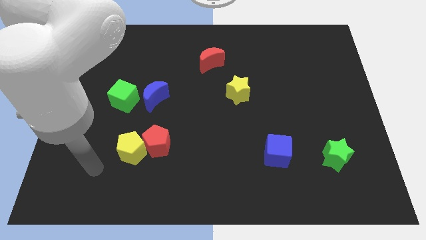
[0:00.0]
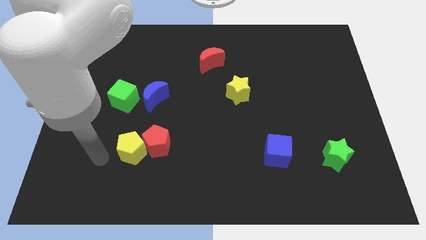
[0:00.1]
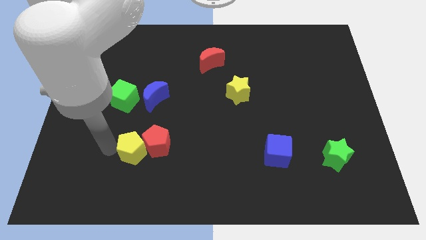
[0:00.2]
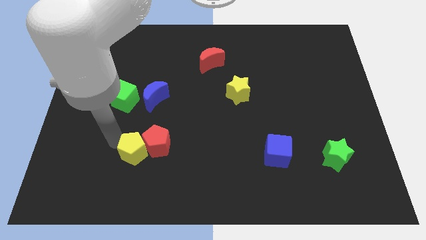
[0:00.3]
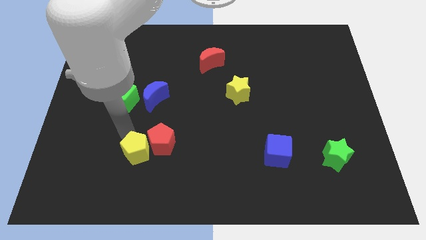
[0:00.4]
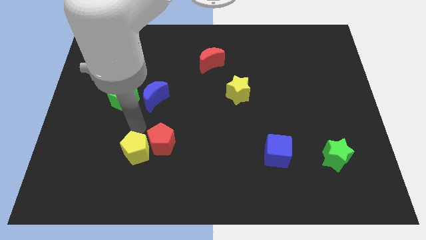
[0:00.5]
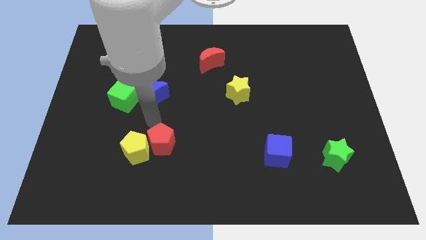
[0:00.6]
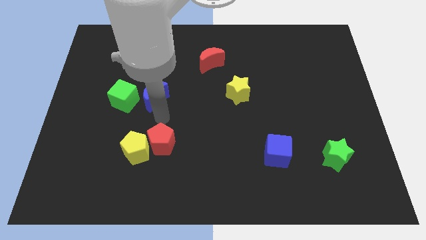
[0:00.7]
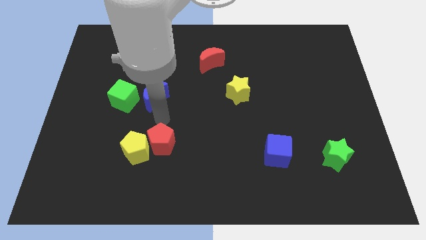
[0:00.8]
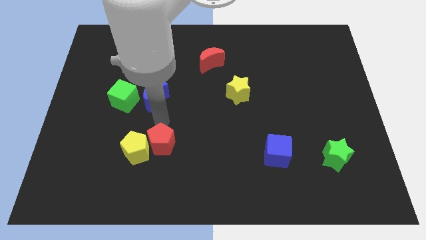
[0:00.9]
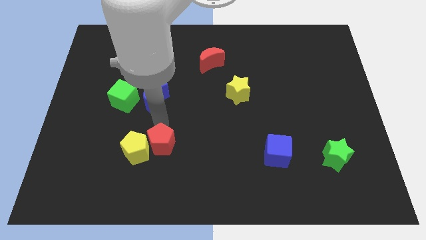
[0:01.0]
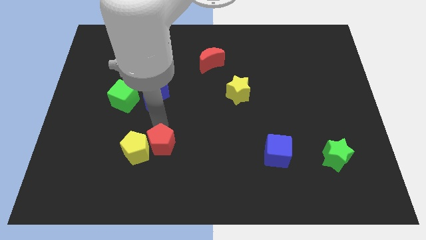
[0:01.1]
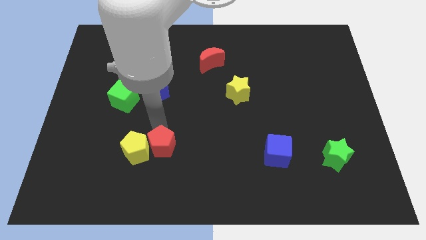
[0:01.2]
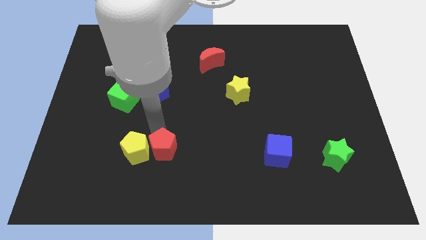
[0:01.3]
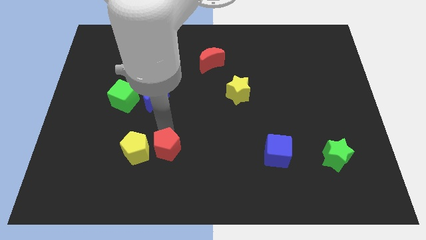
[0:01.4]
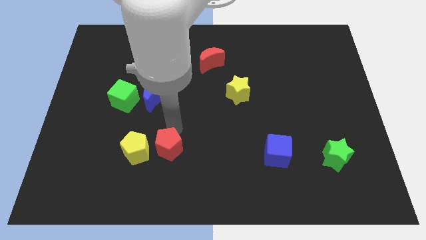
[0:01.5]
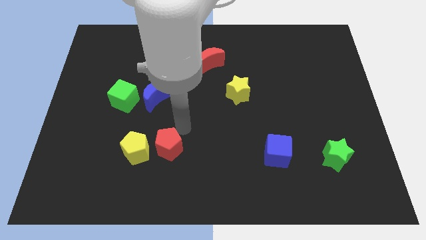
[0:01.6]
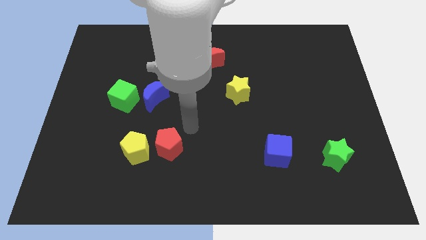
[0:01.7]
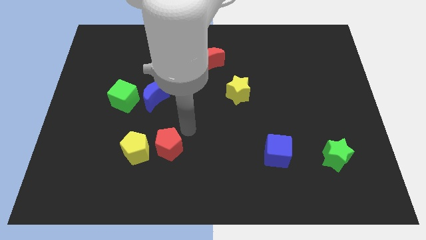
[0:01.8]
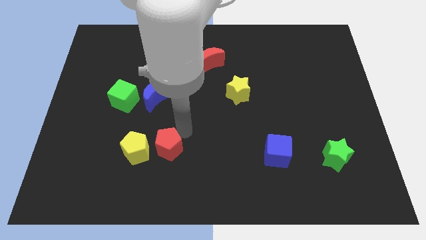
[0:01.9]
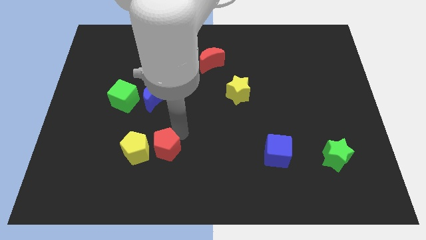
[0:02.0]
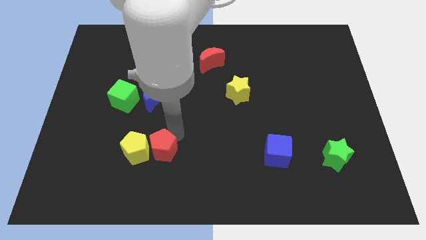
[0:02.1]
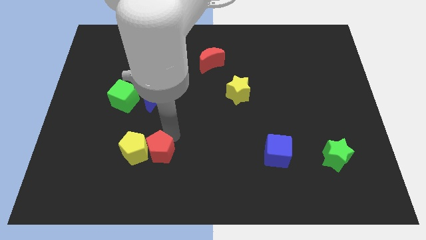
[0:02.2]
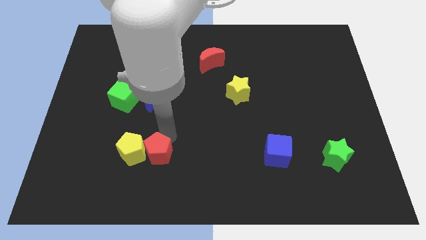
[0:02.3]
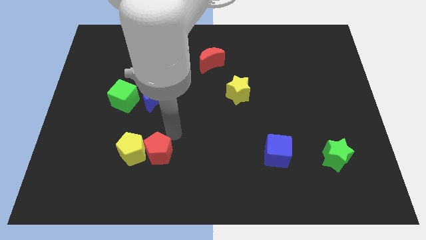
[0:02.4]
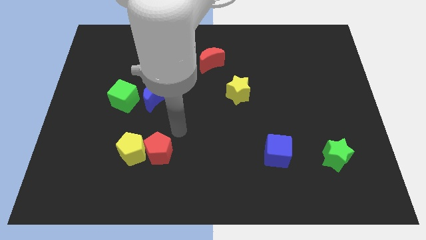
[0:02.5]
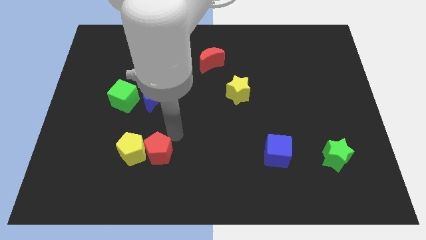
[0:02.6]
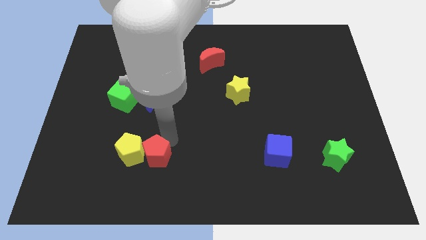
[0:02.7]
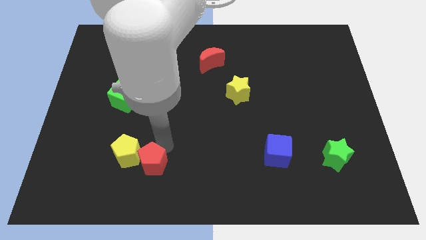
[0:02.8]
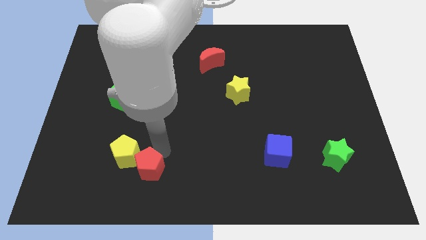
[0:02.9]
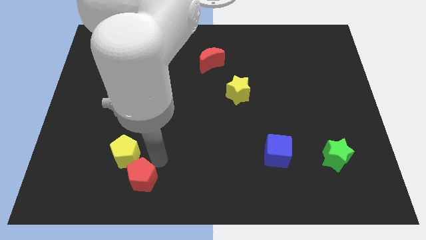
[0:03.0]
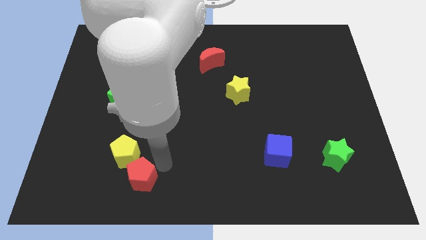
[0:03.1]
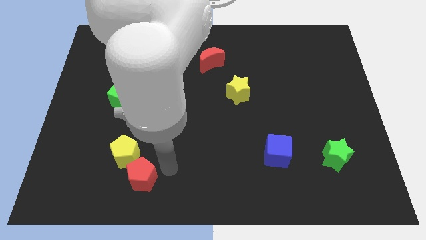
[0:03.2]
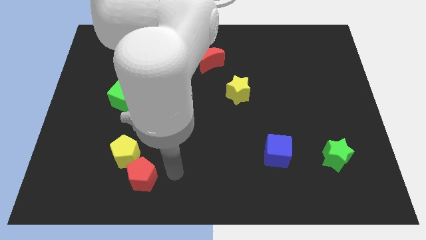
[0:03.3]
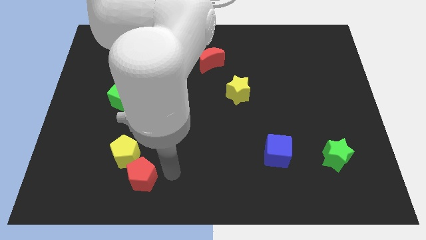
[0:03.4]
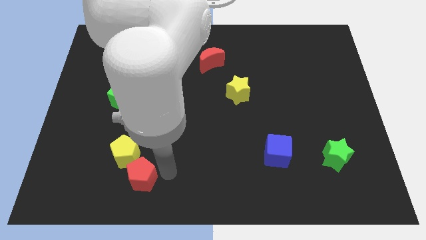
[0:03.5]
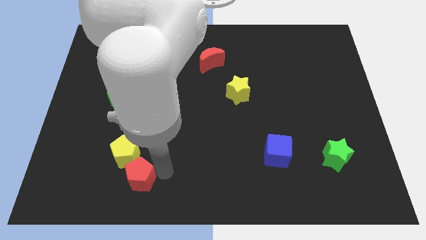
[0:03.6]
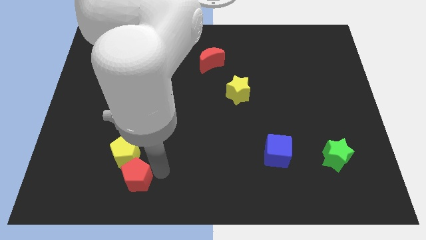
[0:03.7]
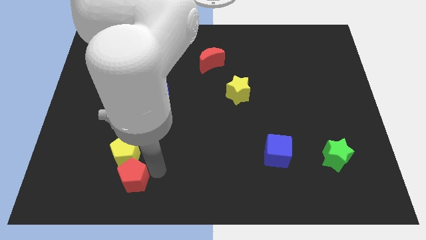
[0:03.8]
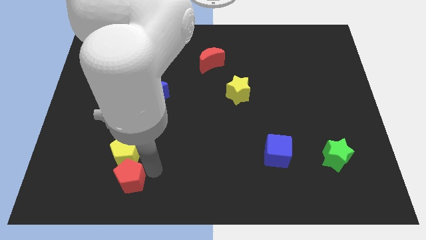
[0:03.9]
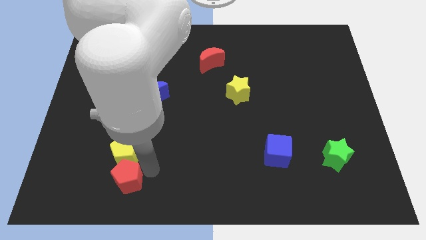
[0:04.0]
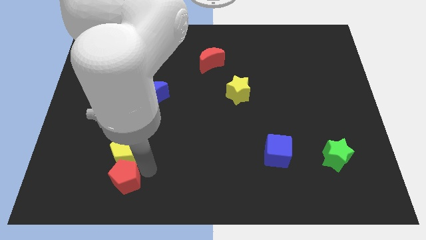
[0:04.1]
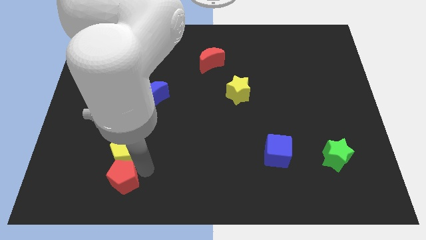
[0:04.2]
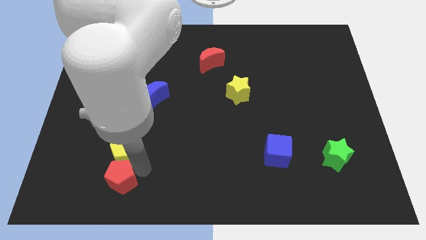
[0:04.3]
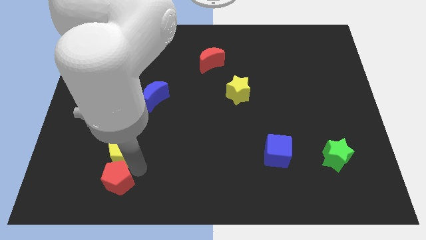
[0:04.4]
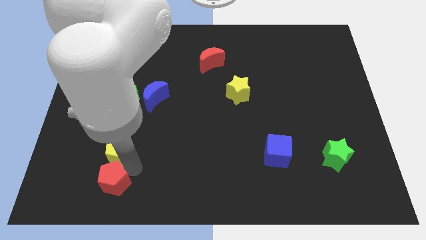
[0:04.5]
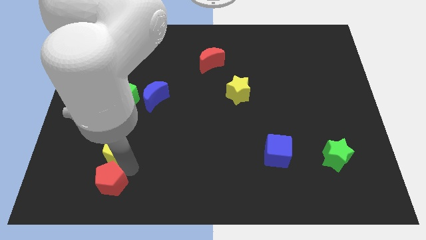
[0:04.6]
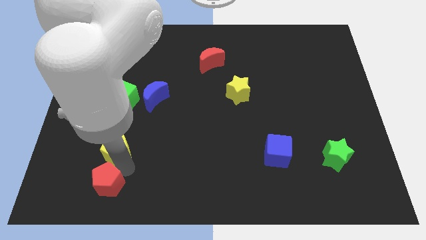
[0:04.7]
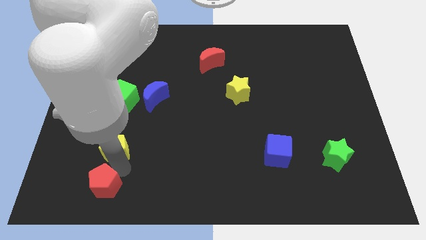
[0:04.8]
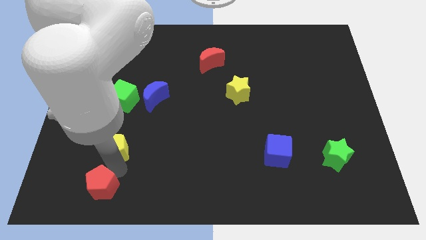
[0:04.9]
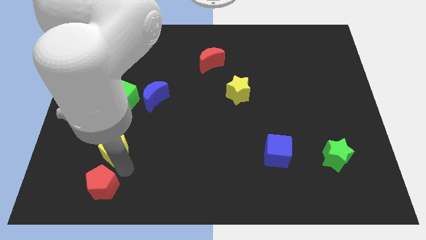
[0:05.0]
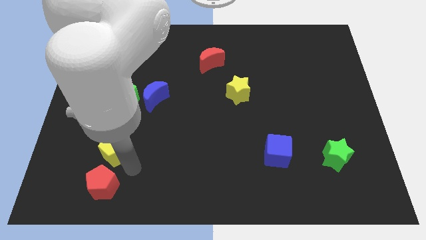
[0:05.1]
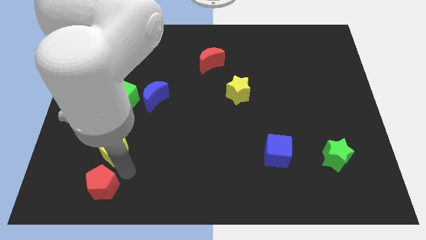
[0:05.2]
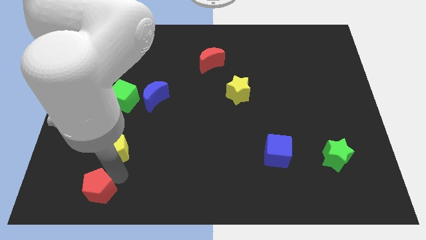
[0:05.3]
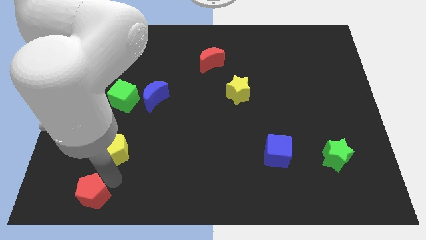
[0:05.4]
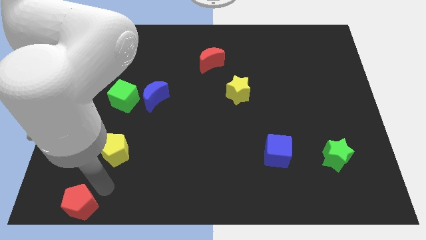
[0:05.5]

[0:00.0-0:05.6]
push the red pentagon to the bottom left

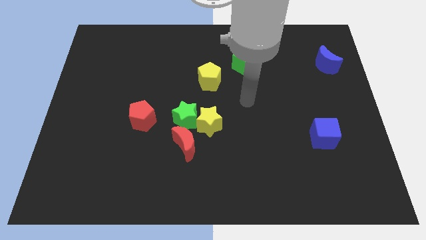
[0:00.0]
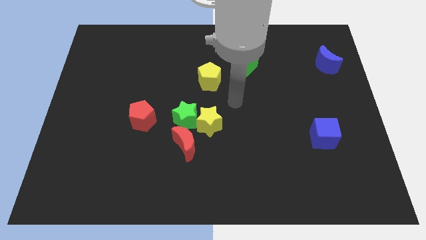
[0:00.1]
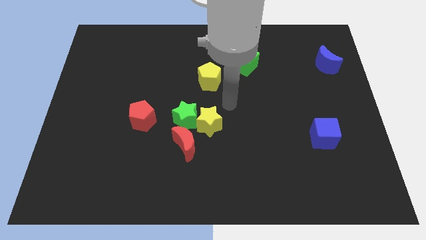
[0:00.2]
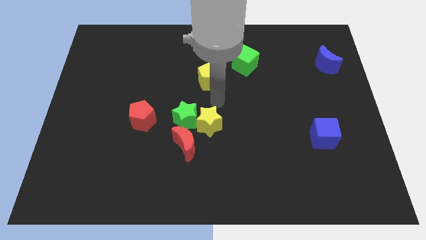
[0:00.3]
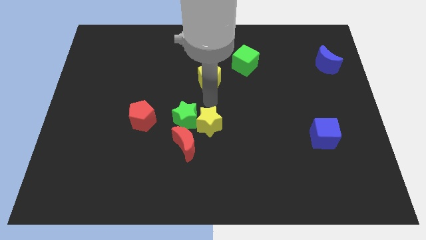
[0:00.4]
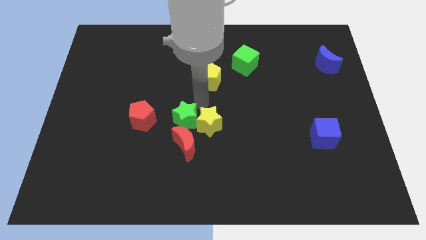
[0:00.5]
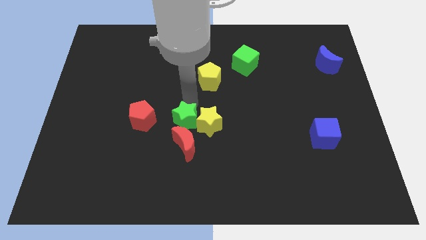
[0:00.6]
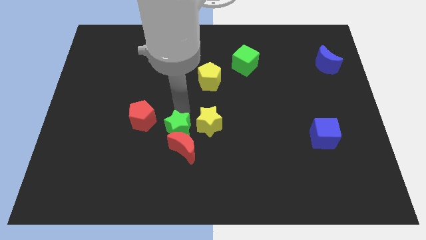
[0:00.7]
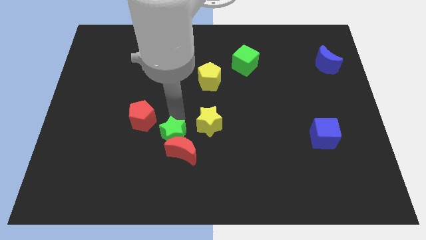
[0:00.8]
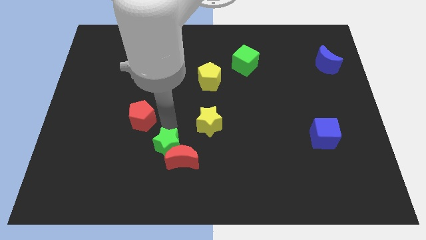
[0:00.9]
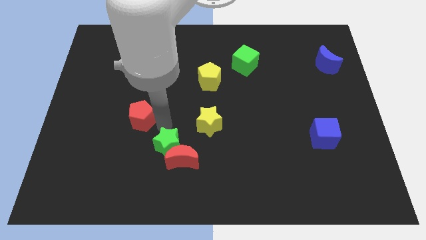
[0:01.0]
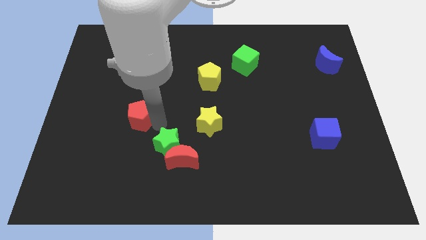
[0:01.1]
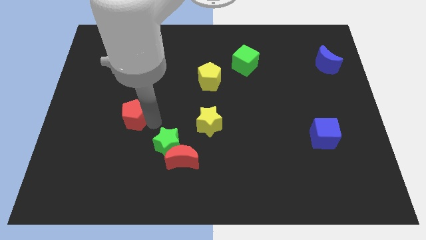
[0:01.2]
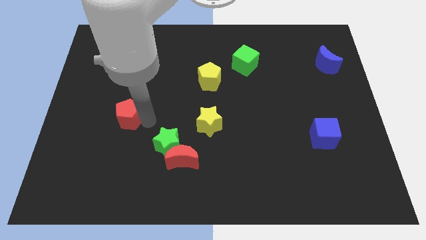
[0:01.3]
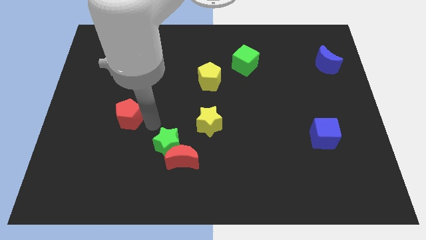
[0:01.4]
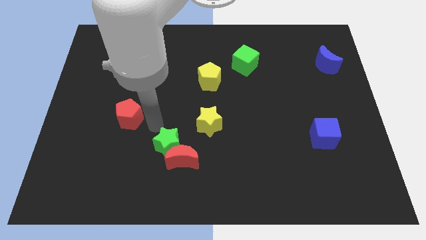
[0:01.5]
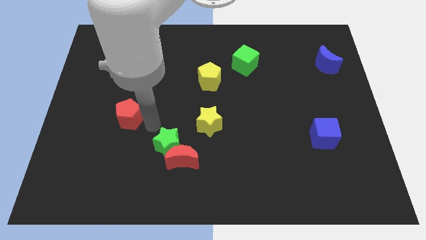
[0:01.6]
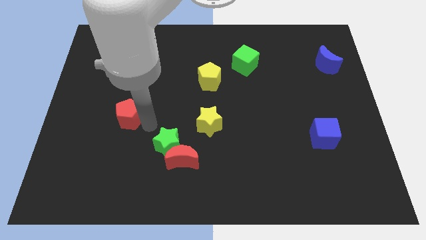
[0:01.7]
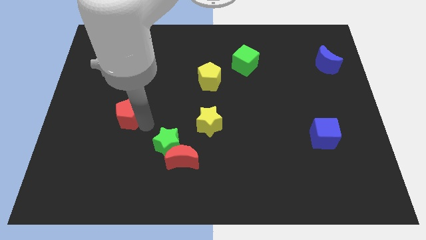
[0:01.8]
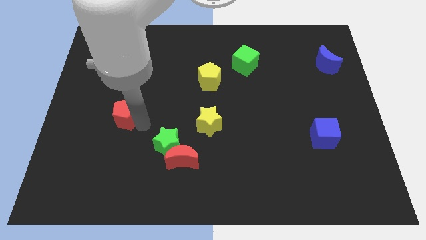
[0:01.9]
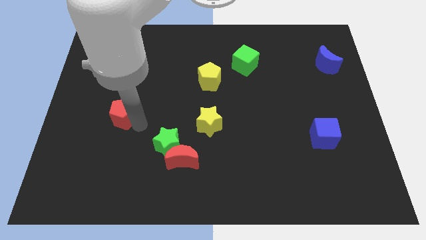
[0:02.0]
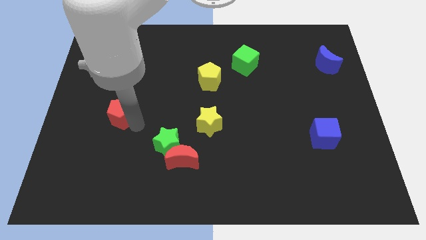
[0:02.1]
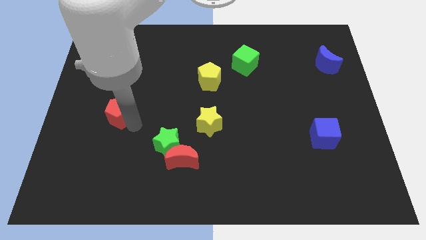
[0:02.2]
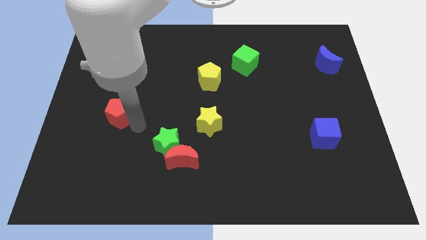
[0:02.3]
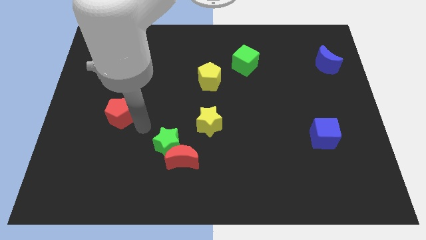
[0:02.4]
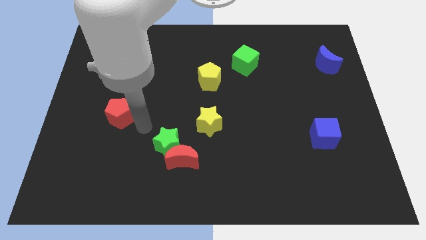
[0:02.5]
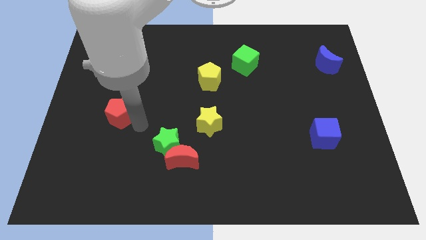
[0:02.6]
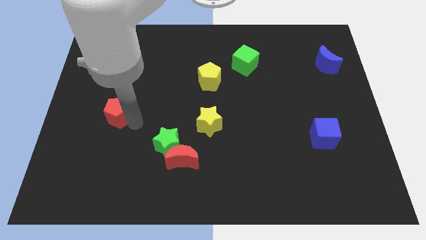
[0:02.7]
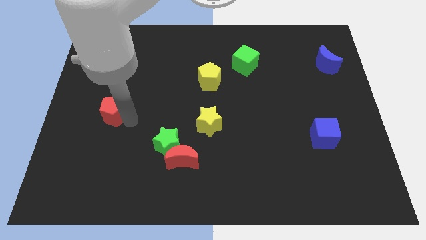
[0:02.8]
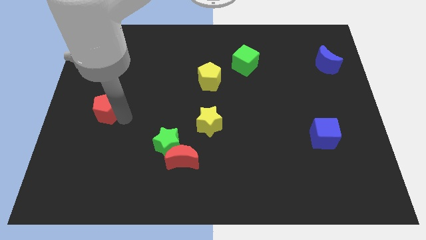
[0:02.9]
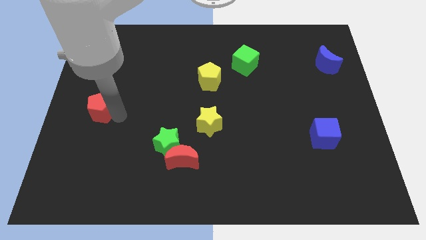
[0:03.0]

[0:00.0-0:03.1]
put the red pentagon to the center left
